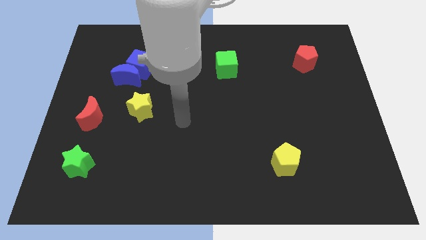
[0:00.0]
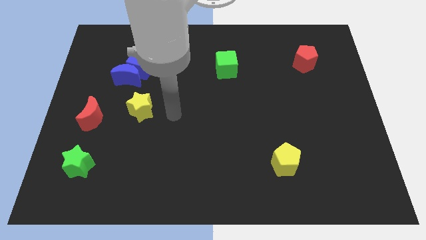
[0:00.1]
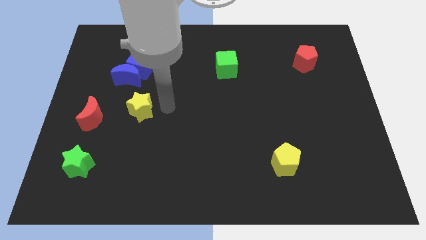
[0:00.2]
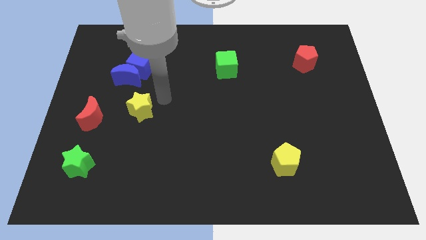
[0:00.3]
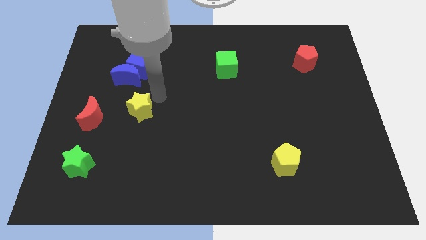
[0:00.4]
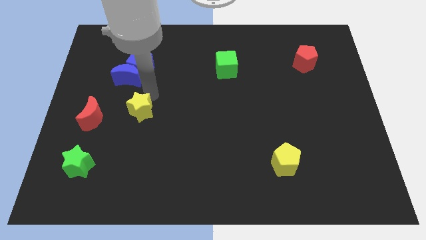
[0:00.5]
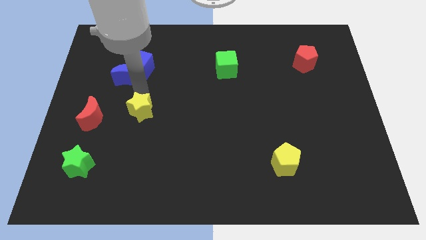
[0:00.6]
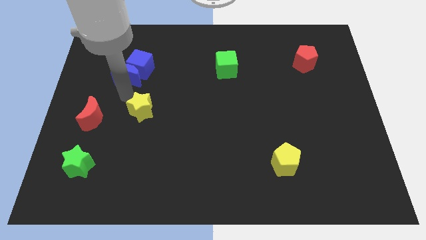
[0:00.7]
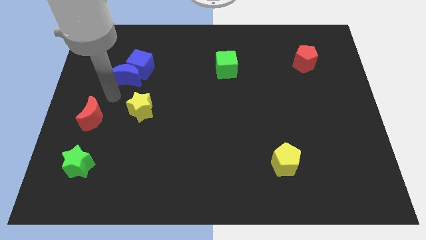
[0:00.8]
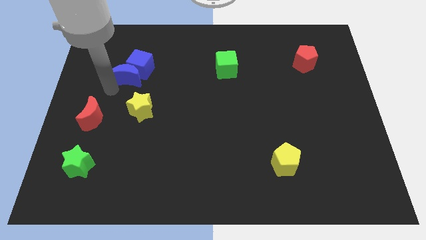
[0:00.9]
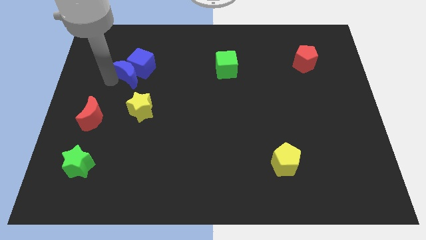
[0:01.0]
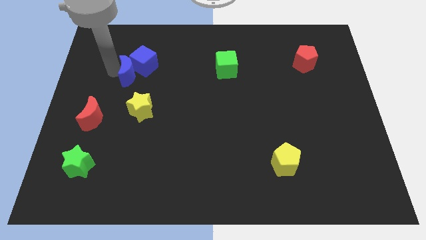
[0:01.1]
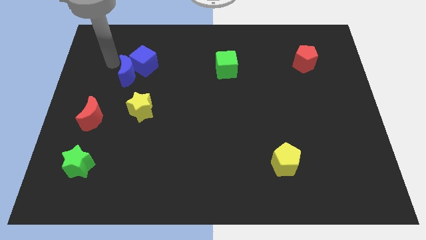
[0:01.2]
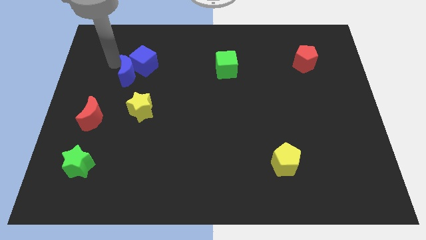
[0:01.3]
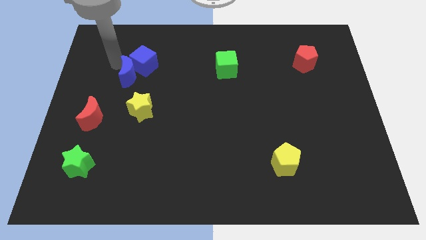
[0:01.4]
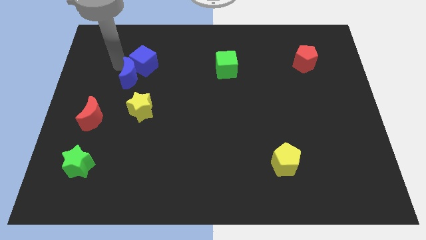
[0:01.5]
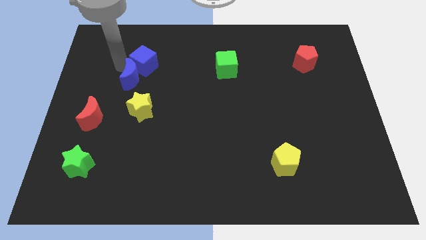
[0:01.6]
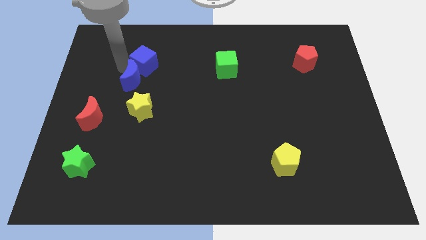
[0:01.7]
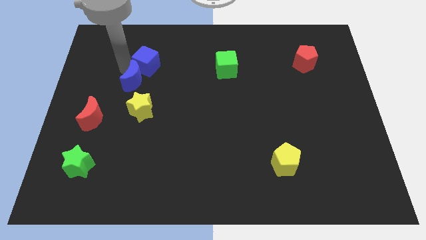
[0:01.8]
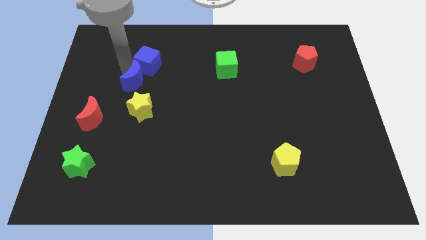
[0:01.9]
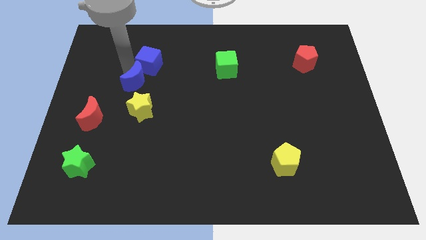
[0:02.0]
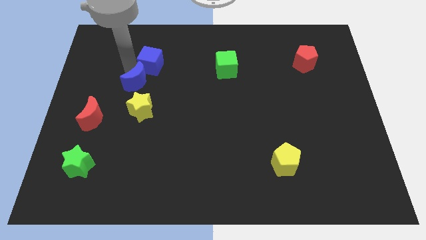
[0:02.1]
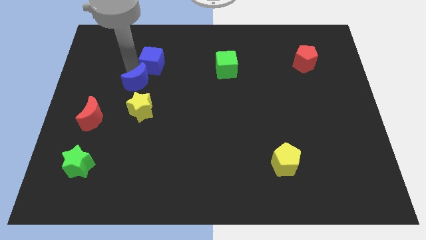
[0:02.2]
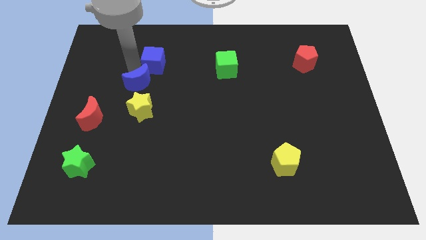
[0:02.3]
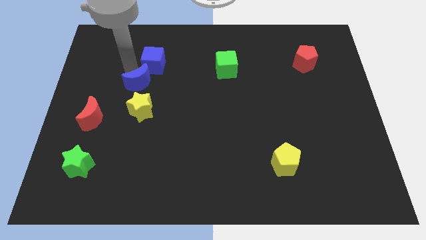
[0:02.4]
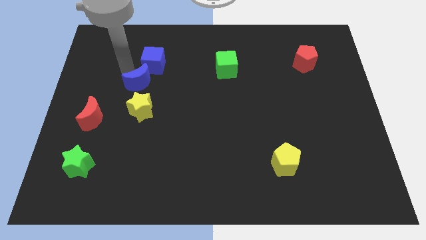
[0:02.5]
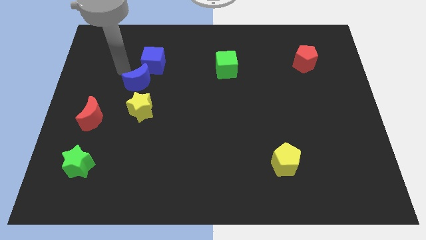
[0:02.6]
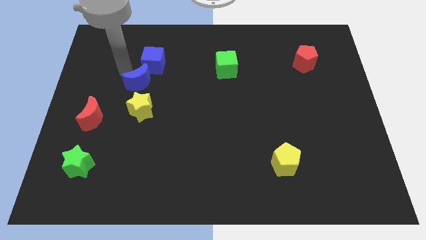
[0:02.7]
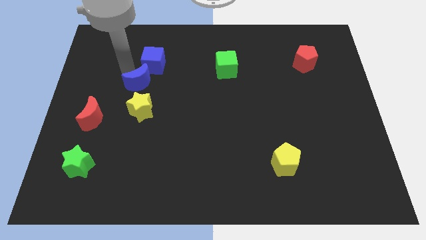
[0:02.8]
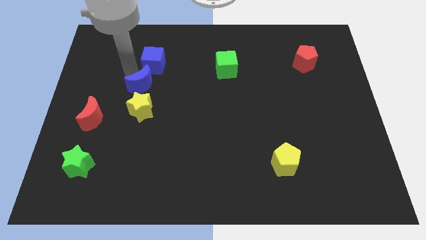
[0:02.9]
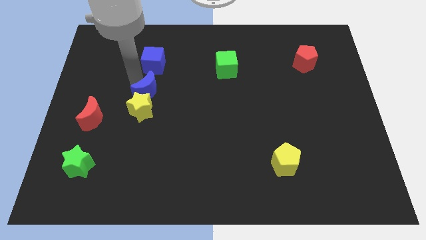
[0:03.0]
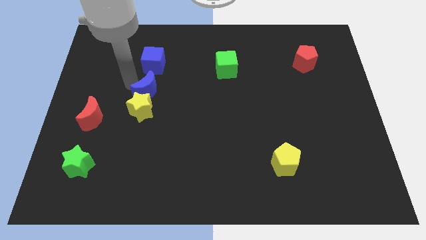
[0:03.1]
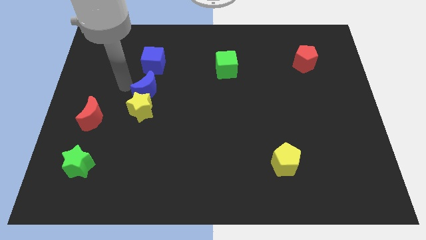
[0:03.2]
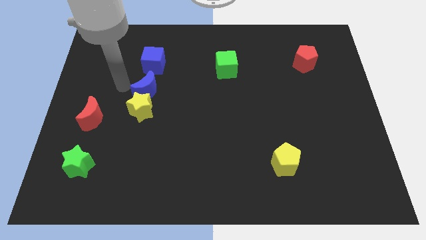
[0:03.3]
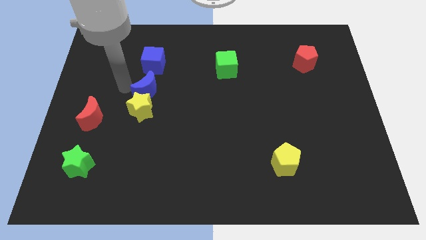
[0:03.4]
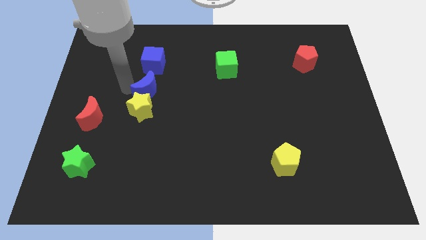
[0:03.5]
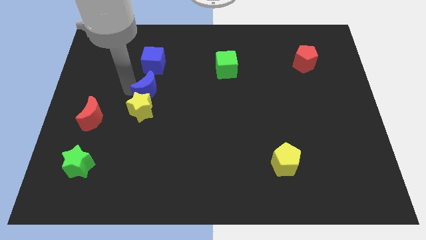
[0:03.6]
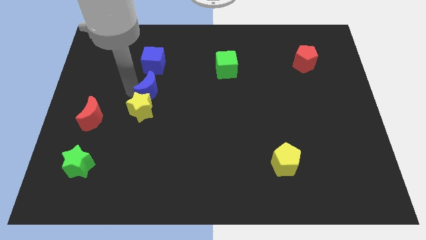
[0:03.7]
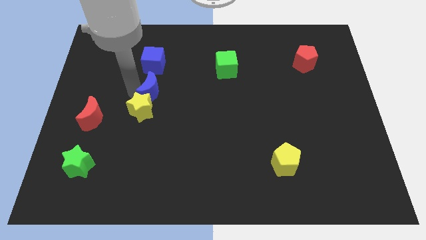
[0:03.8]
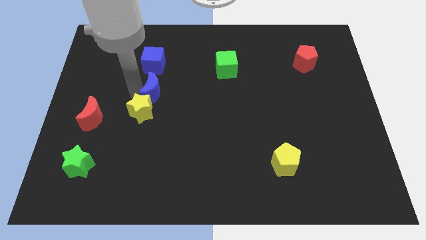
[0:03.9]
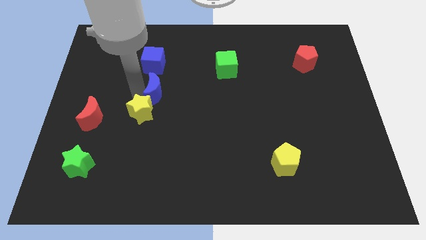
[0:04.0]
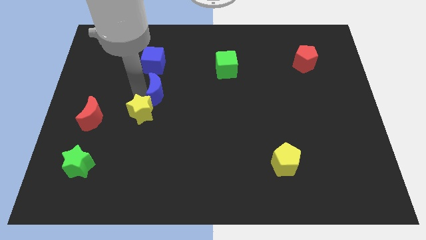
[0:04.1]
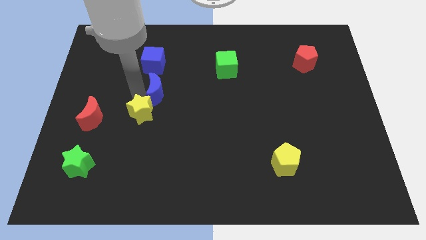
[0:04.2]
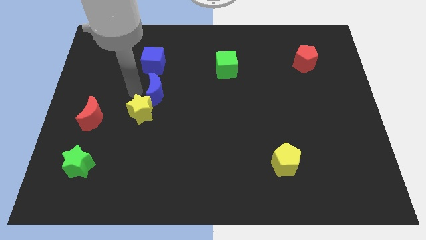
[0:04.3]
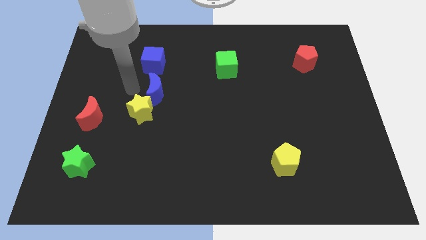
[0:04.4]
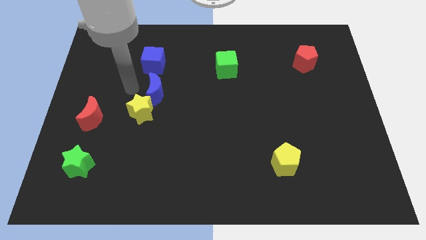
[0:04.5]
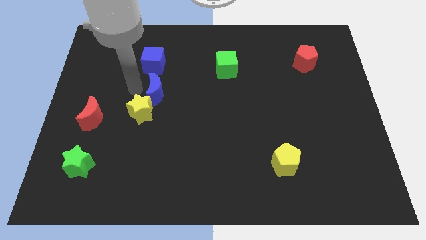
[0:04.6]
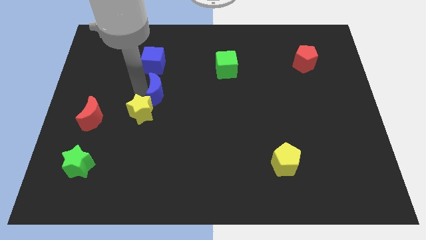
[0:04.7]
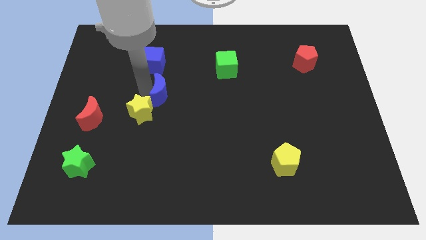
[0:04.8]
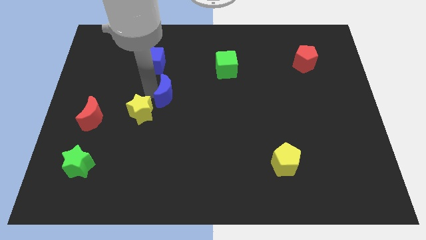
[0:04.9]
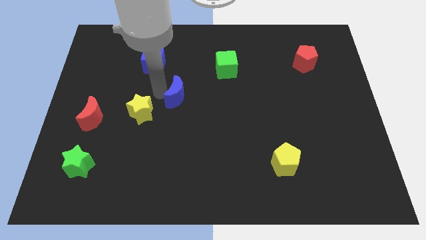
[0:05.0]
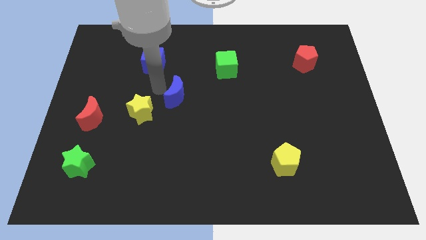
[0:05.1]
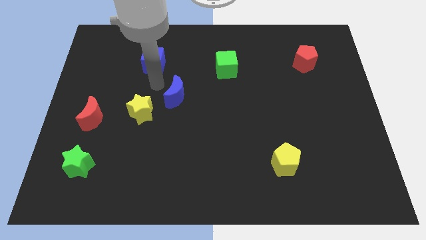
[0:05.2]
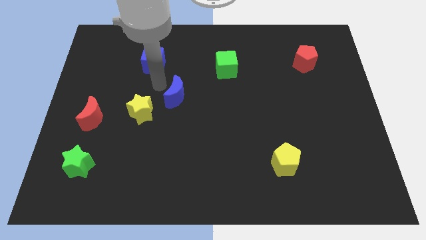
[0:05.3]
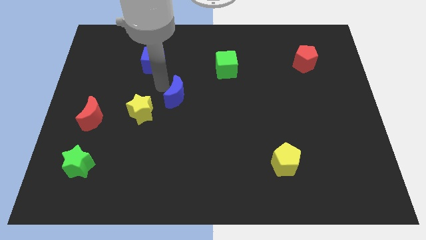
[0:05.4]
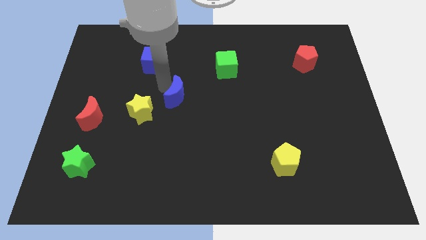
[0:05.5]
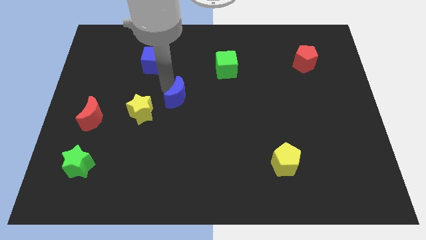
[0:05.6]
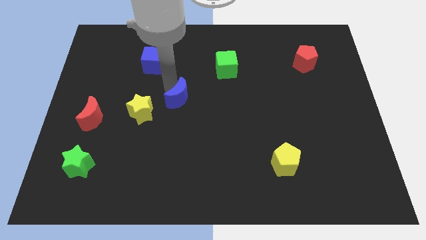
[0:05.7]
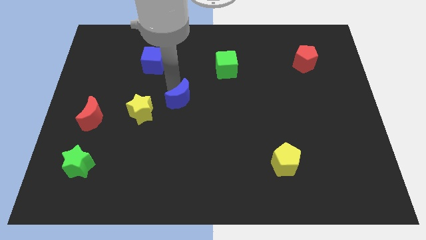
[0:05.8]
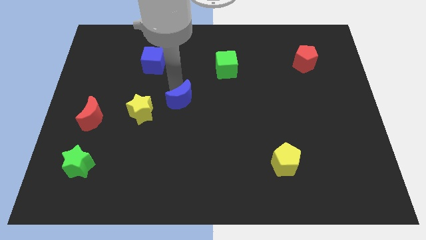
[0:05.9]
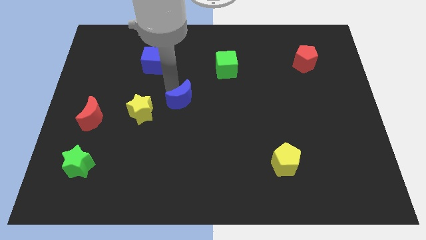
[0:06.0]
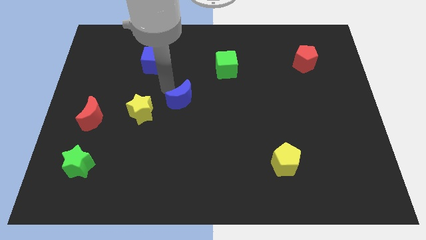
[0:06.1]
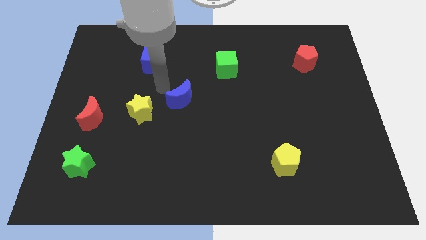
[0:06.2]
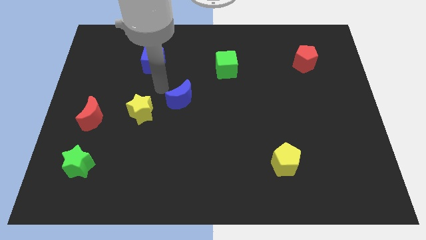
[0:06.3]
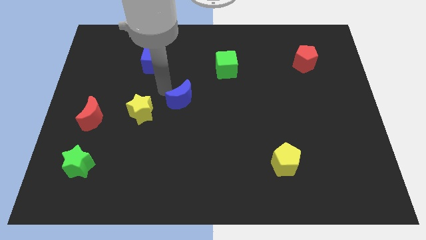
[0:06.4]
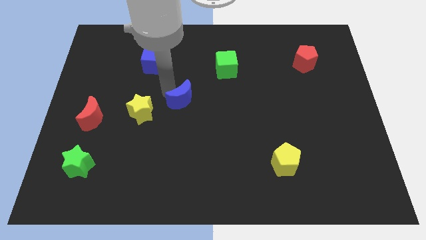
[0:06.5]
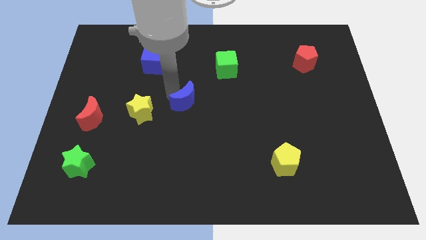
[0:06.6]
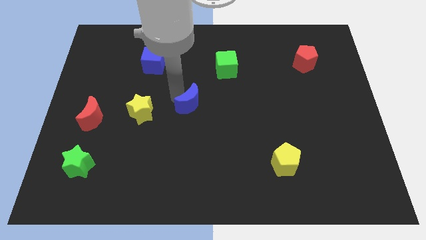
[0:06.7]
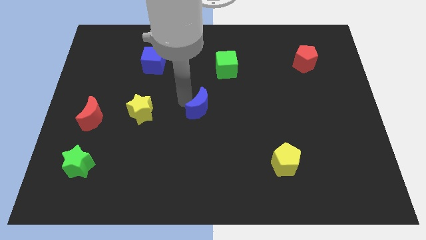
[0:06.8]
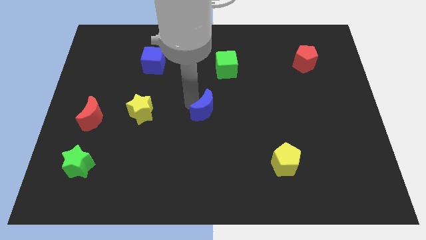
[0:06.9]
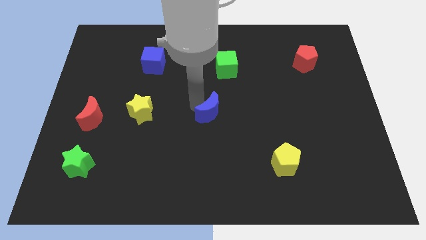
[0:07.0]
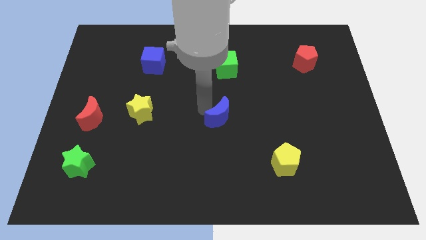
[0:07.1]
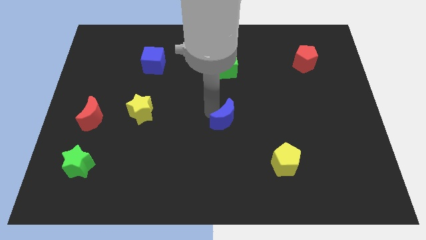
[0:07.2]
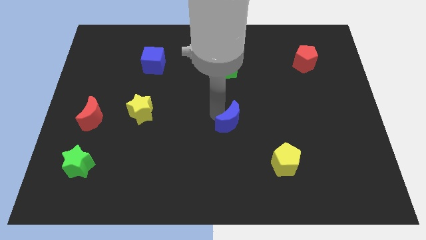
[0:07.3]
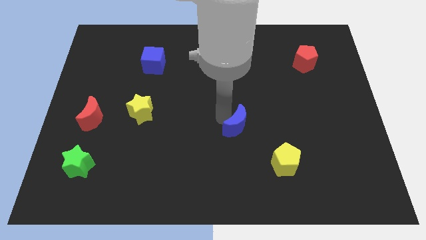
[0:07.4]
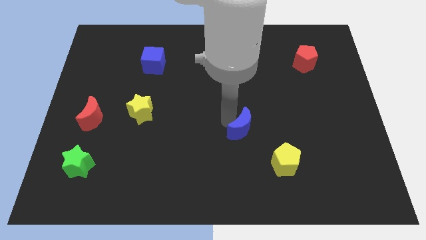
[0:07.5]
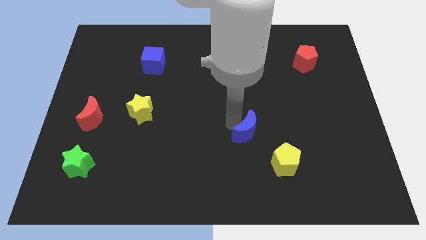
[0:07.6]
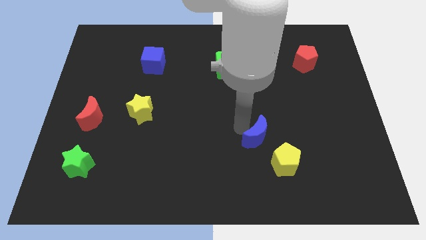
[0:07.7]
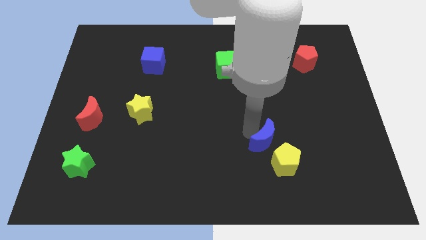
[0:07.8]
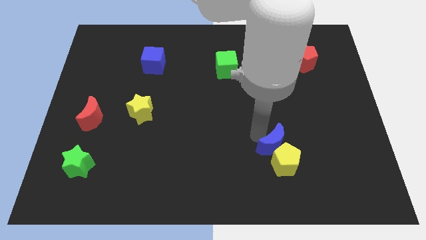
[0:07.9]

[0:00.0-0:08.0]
push the blue moon next to the yellow pentagon
